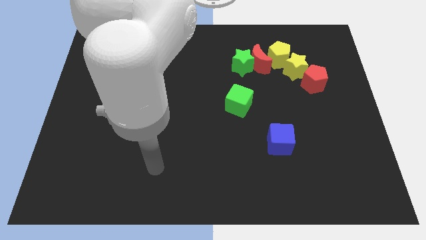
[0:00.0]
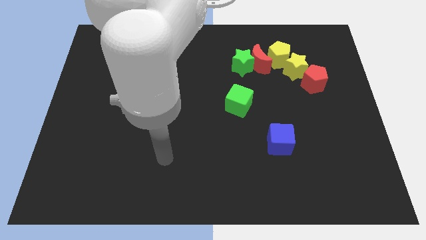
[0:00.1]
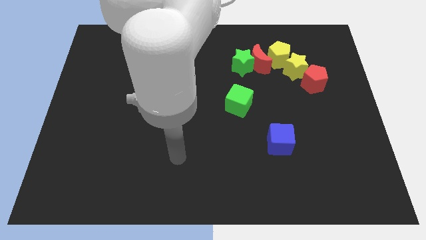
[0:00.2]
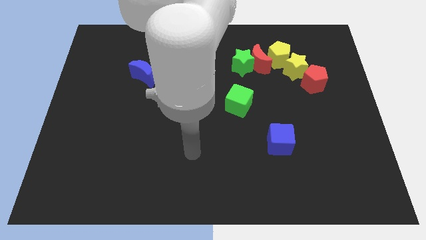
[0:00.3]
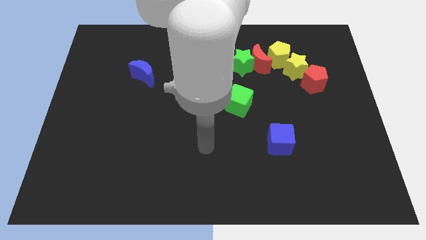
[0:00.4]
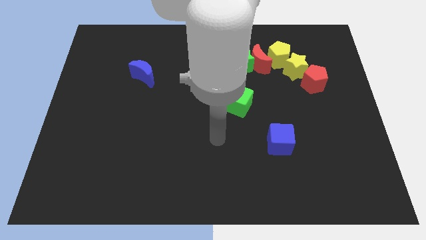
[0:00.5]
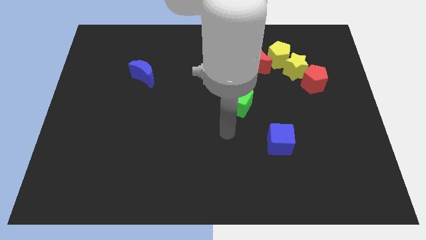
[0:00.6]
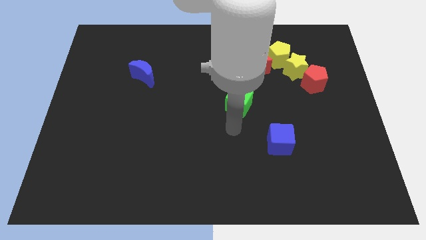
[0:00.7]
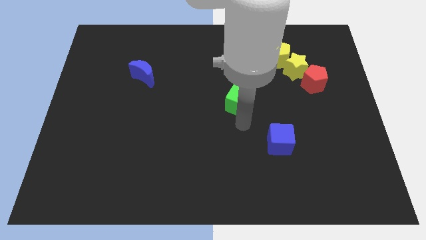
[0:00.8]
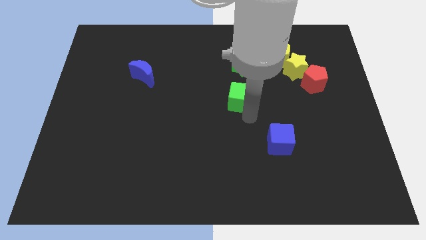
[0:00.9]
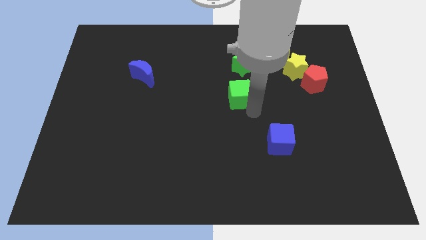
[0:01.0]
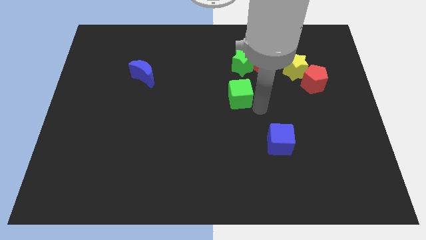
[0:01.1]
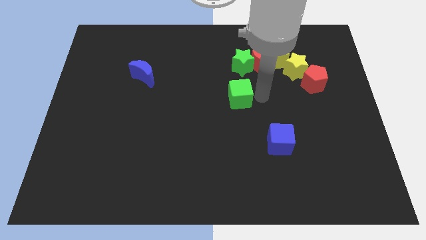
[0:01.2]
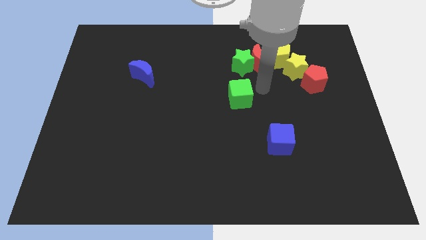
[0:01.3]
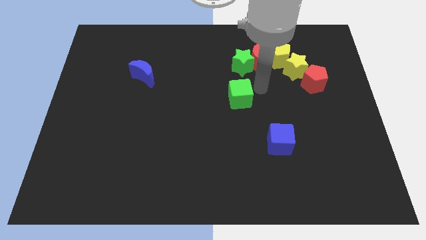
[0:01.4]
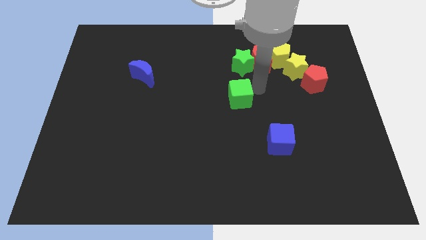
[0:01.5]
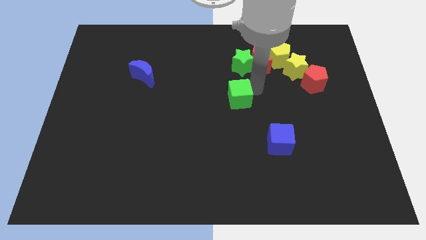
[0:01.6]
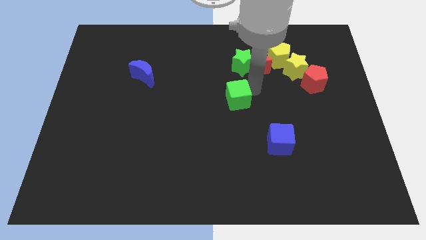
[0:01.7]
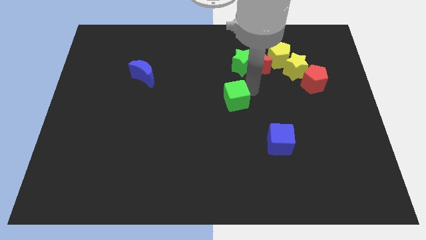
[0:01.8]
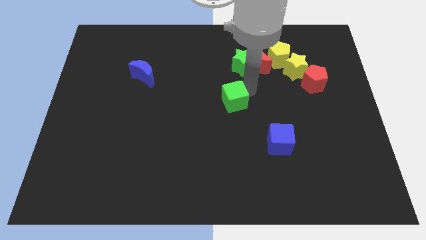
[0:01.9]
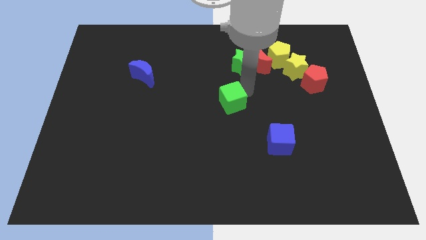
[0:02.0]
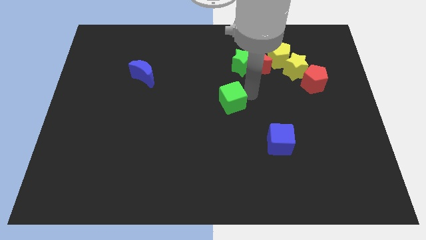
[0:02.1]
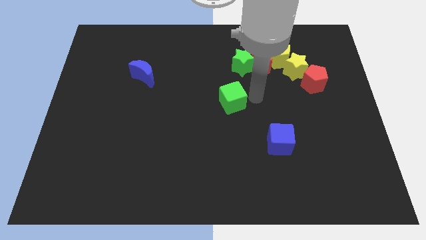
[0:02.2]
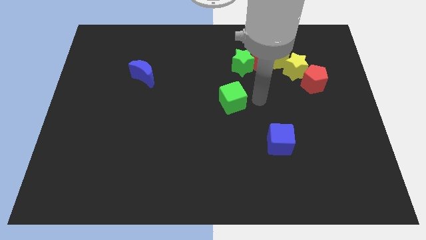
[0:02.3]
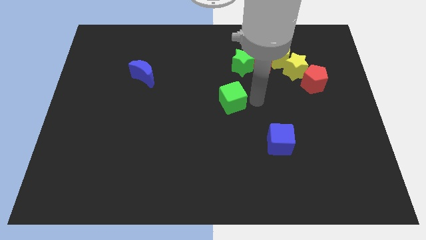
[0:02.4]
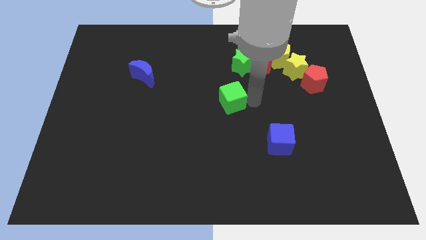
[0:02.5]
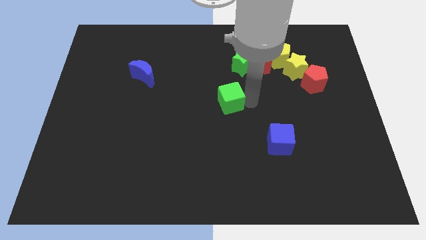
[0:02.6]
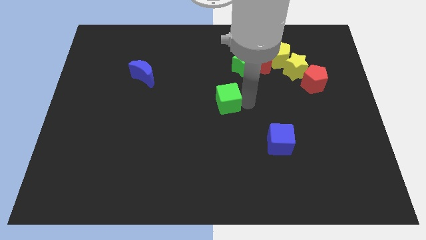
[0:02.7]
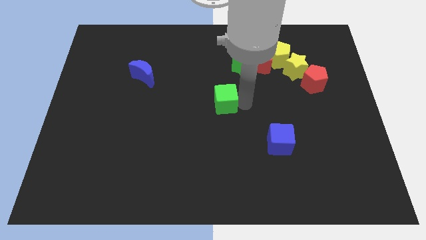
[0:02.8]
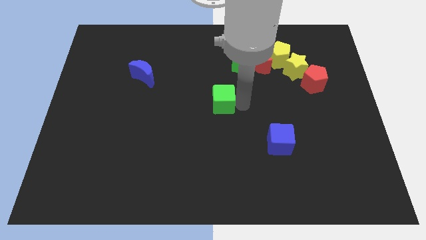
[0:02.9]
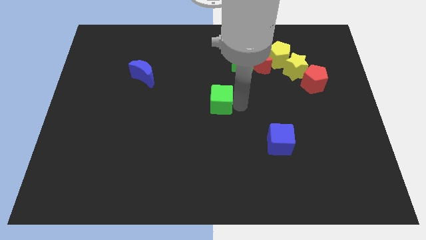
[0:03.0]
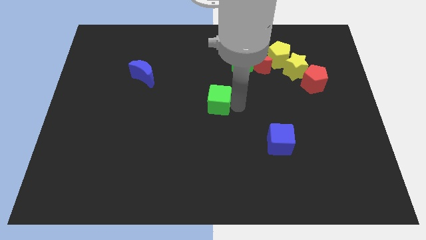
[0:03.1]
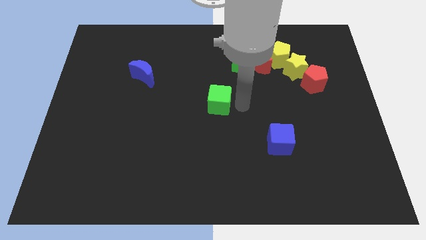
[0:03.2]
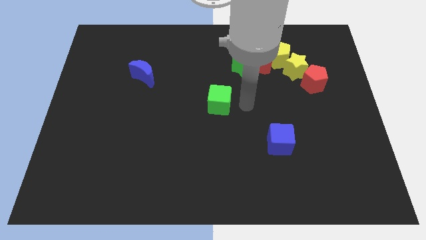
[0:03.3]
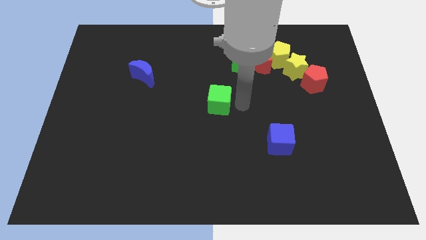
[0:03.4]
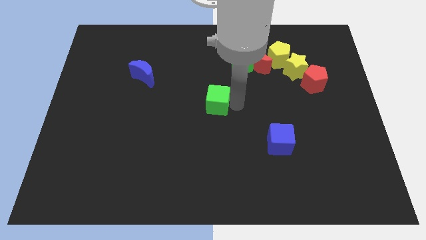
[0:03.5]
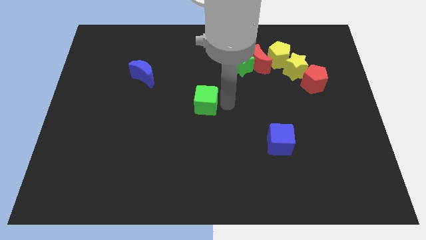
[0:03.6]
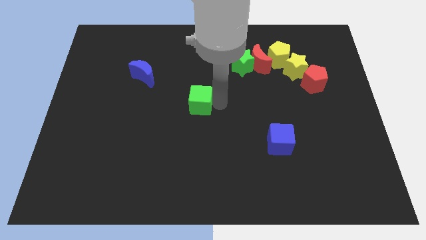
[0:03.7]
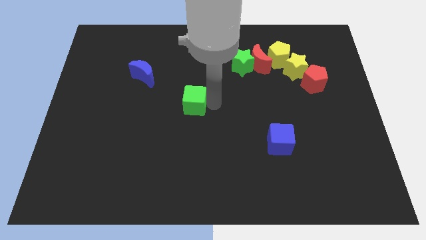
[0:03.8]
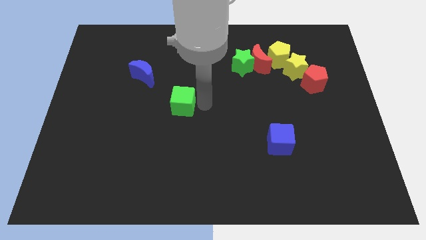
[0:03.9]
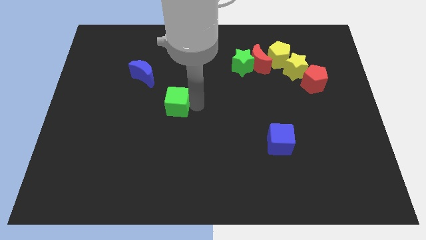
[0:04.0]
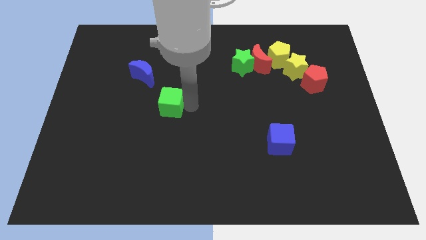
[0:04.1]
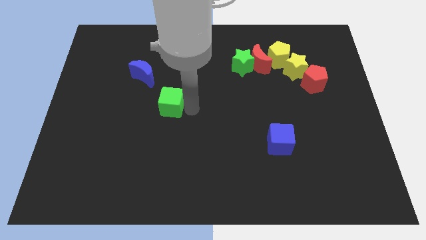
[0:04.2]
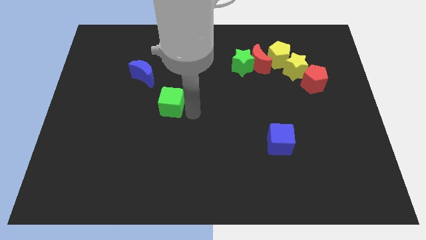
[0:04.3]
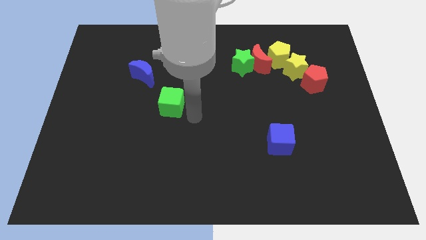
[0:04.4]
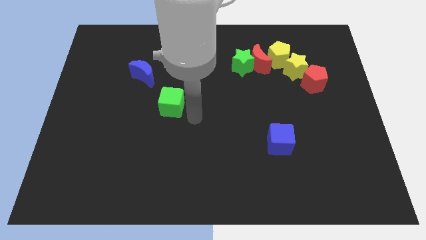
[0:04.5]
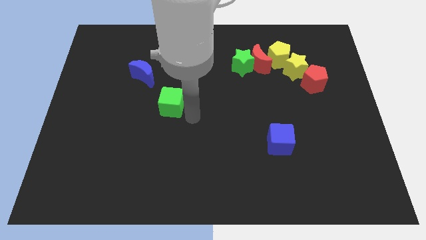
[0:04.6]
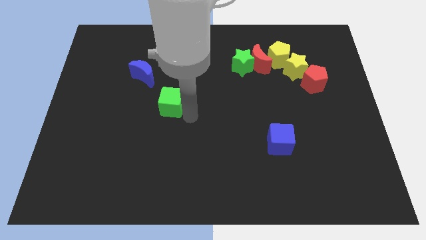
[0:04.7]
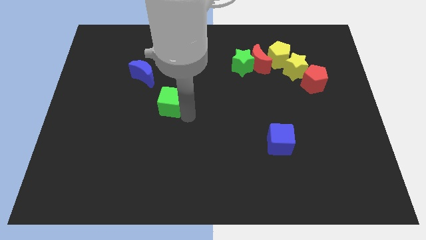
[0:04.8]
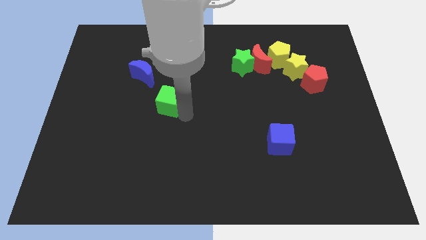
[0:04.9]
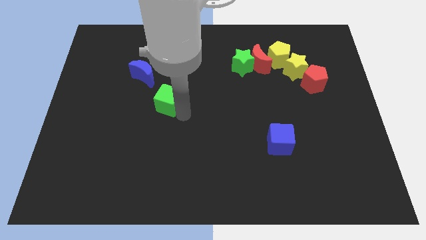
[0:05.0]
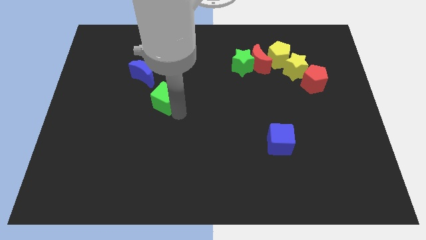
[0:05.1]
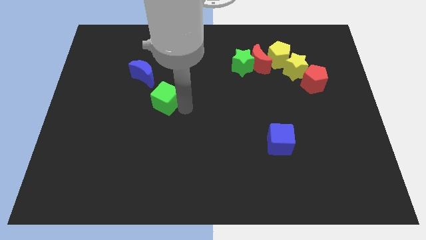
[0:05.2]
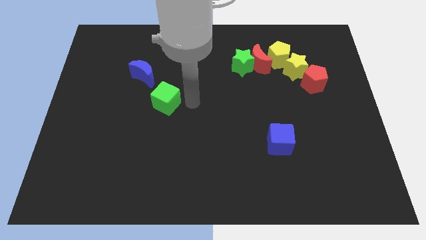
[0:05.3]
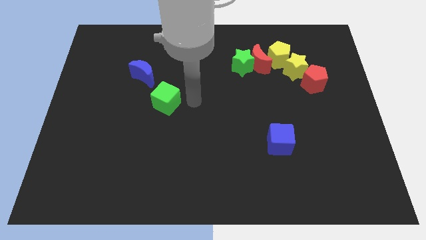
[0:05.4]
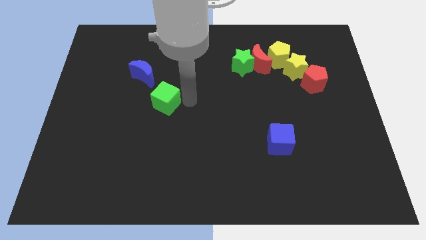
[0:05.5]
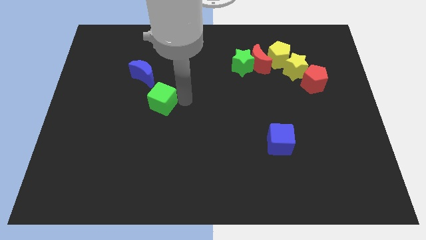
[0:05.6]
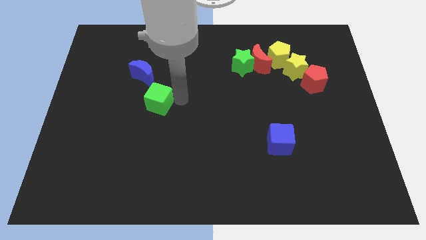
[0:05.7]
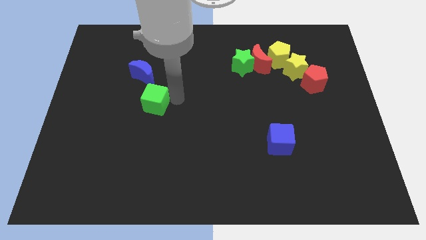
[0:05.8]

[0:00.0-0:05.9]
push the green cube to the left

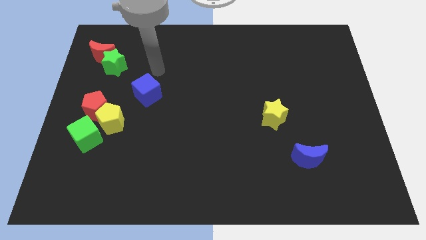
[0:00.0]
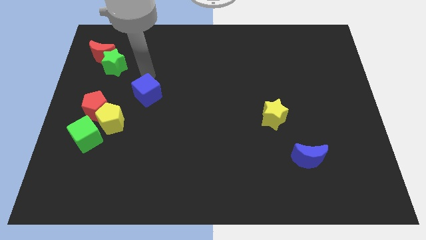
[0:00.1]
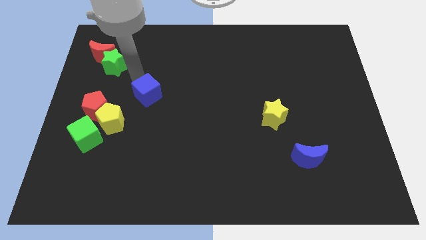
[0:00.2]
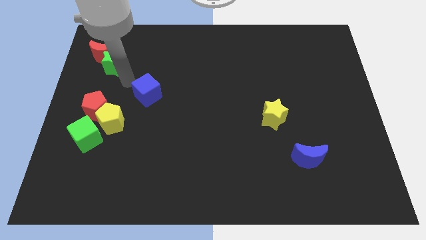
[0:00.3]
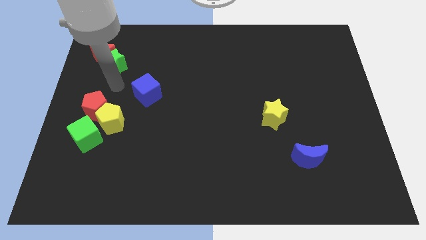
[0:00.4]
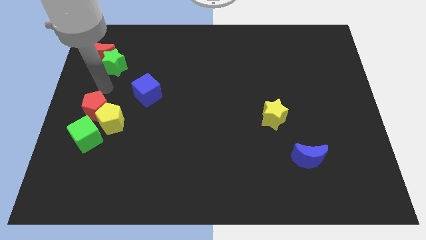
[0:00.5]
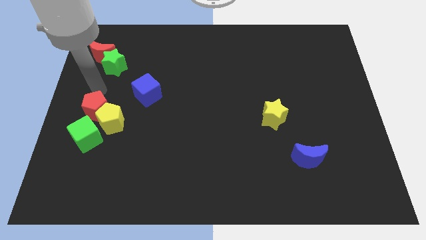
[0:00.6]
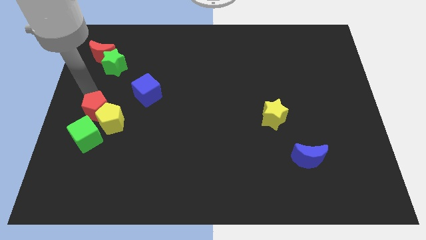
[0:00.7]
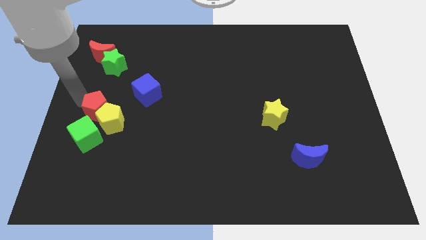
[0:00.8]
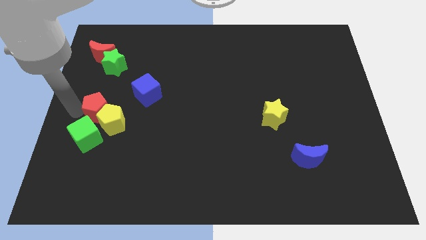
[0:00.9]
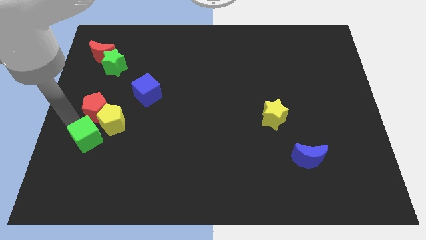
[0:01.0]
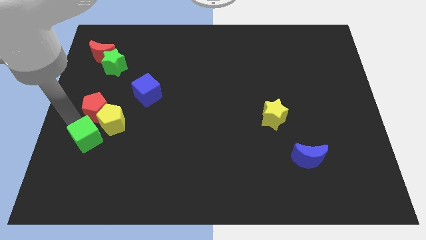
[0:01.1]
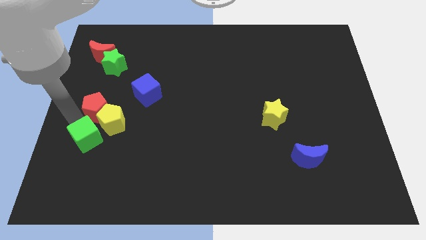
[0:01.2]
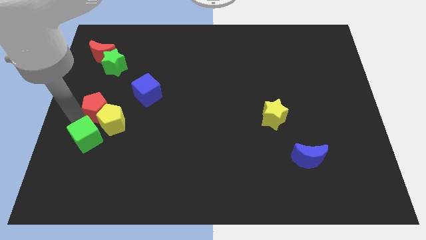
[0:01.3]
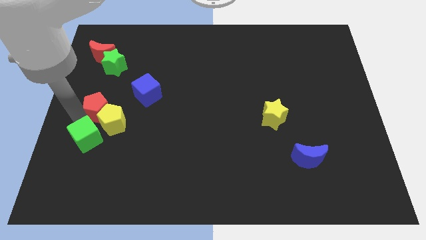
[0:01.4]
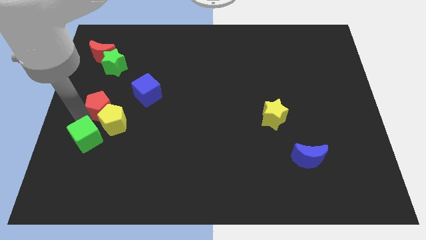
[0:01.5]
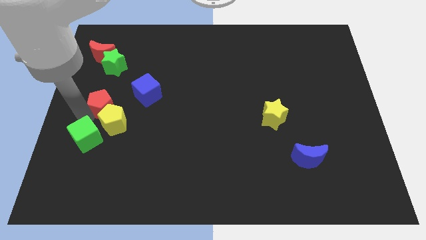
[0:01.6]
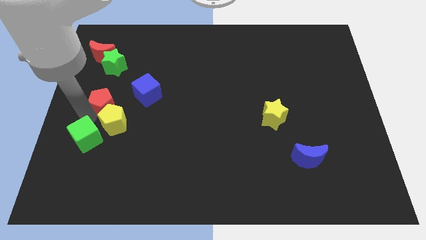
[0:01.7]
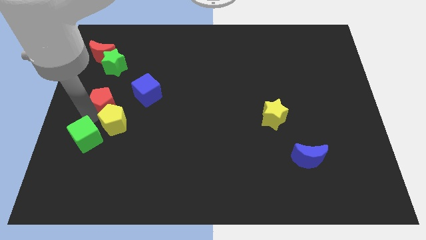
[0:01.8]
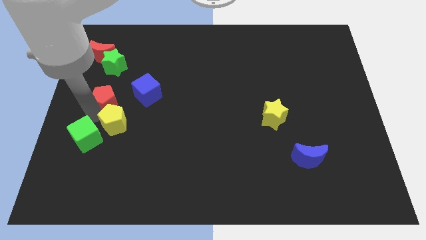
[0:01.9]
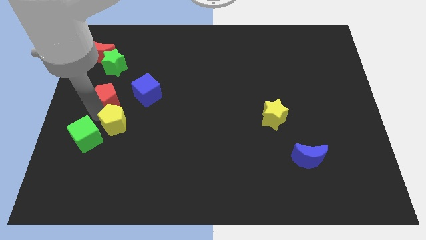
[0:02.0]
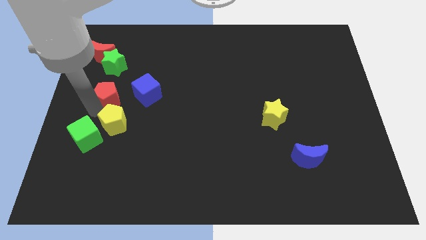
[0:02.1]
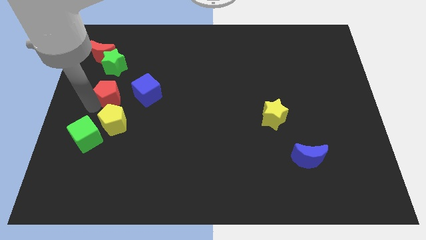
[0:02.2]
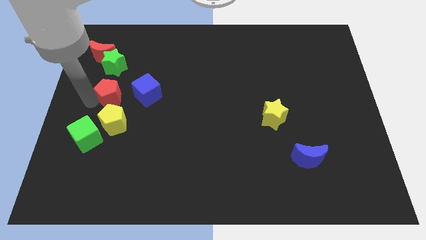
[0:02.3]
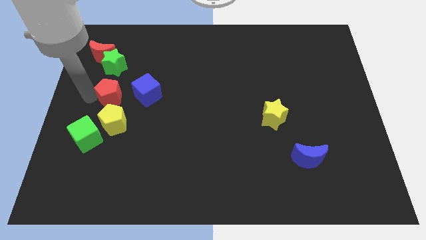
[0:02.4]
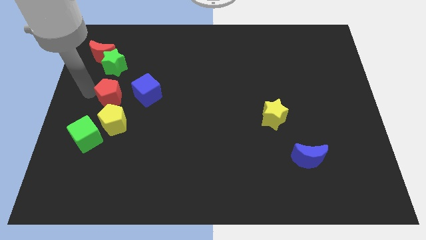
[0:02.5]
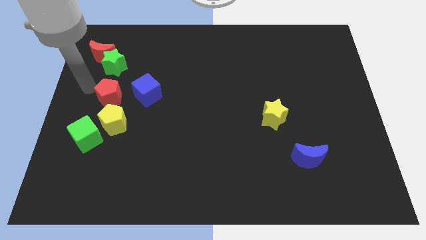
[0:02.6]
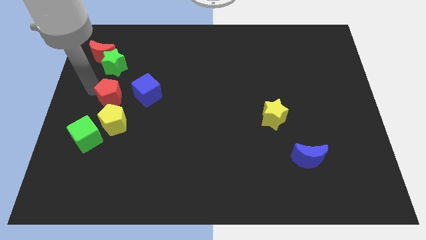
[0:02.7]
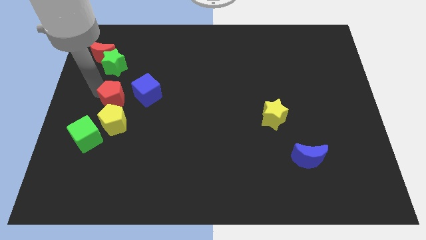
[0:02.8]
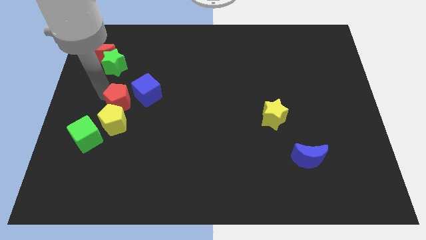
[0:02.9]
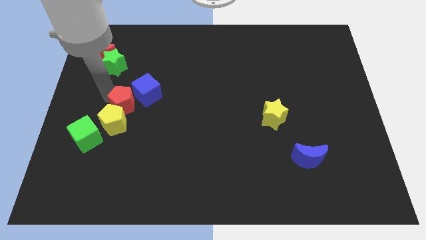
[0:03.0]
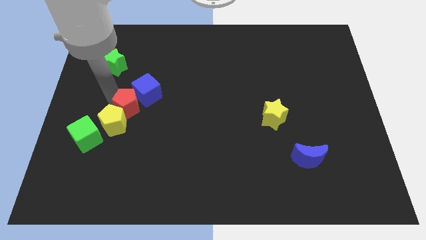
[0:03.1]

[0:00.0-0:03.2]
slightly slide the red pentagon right
